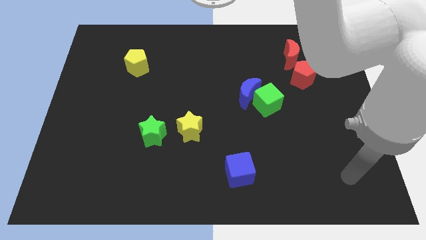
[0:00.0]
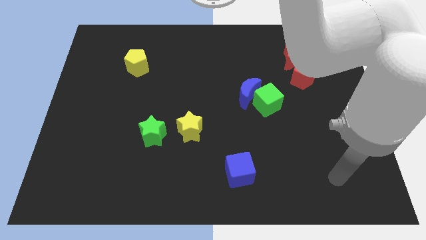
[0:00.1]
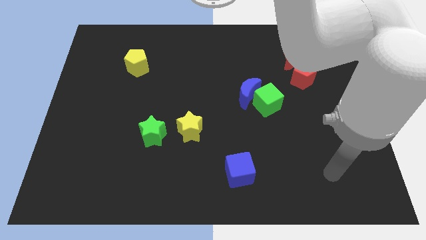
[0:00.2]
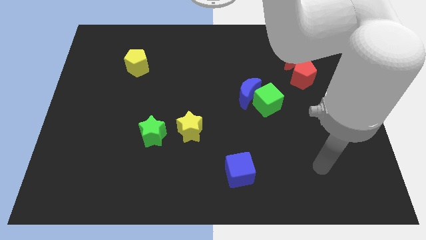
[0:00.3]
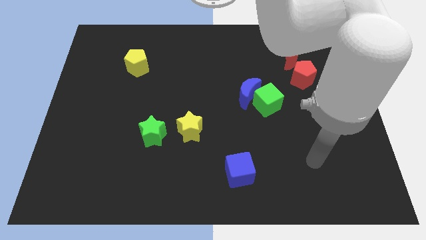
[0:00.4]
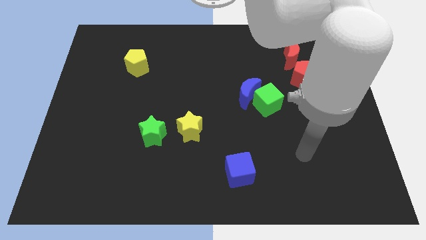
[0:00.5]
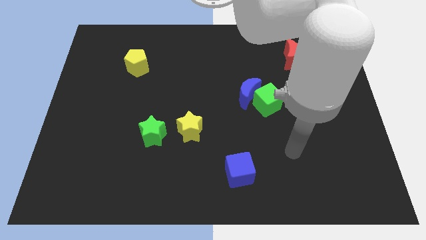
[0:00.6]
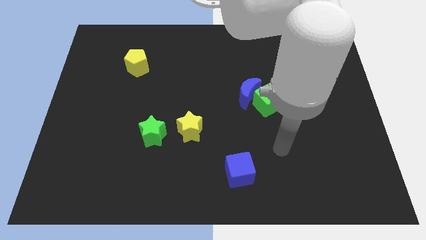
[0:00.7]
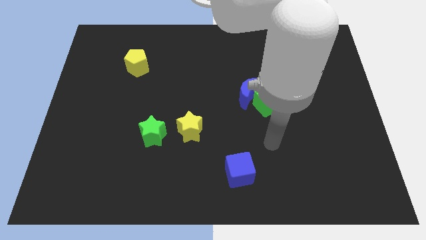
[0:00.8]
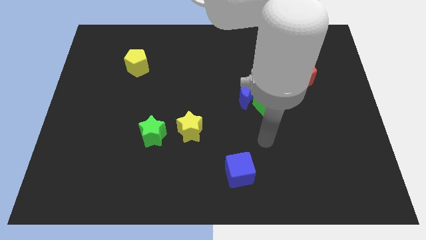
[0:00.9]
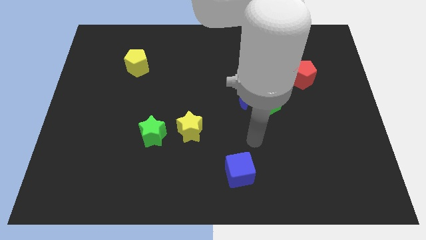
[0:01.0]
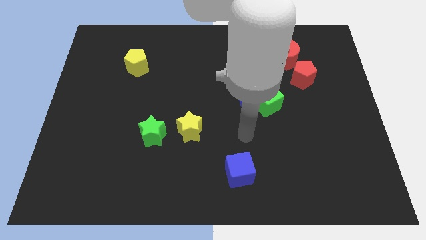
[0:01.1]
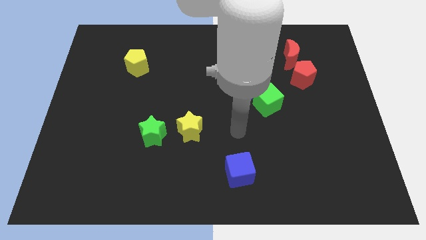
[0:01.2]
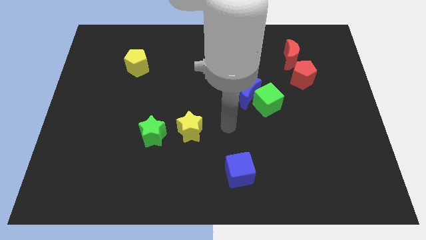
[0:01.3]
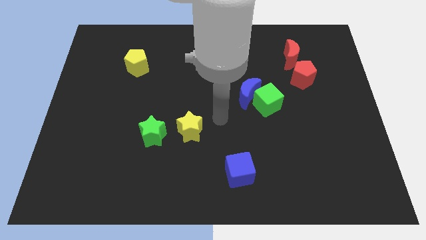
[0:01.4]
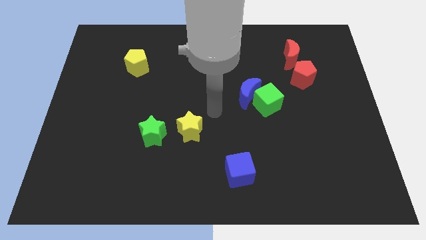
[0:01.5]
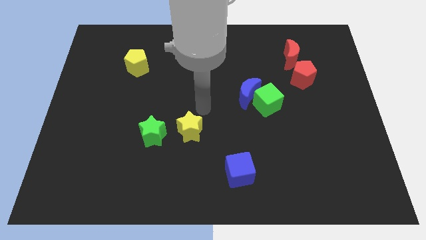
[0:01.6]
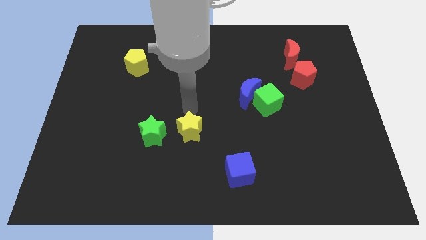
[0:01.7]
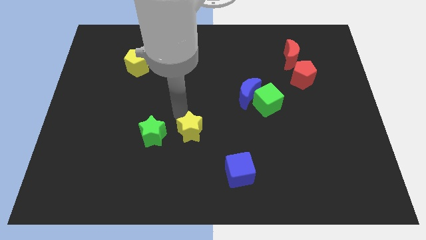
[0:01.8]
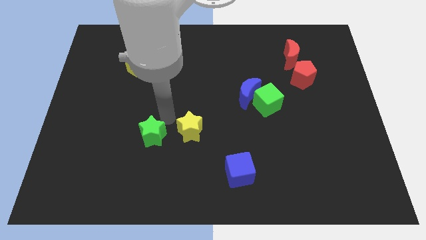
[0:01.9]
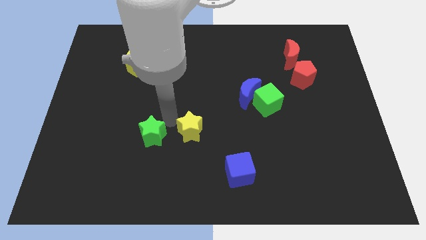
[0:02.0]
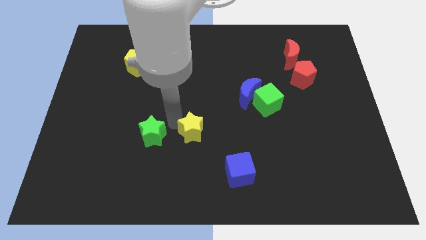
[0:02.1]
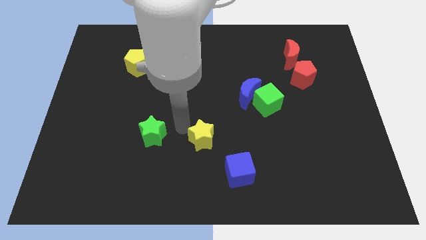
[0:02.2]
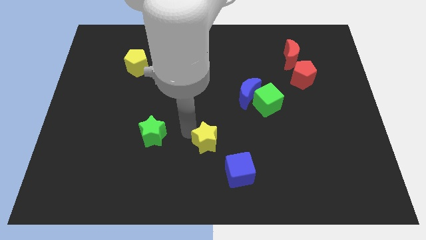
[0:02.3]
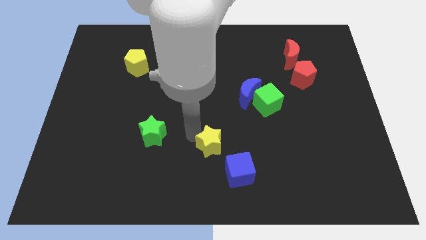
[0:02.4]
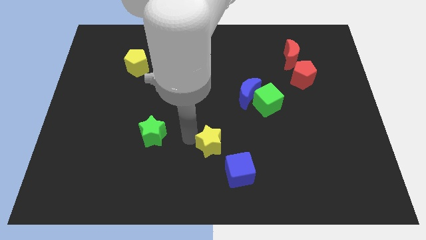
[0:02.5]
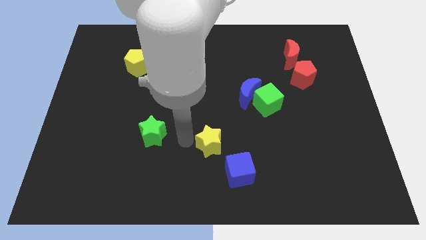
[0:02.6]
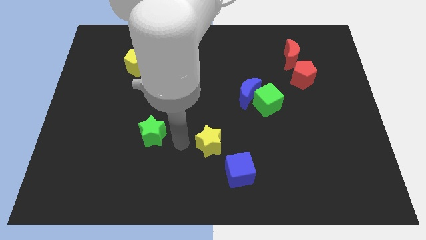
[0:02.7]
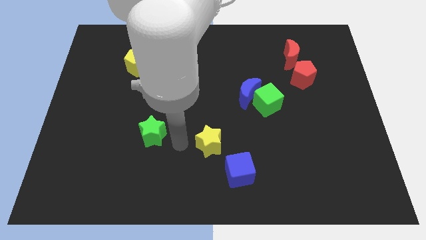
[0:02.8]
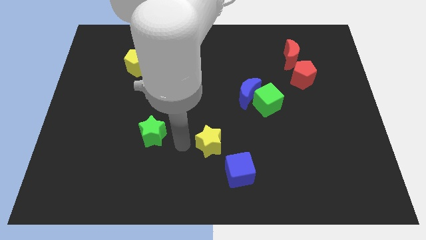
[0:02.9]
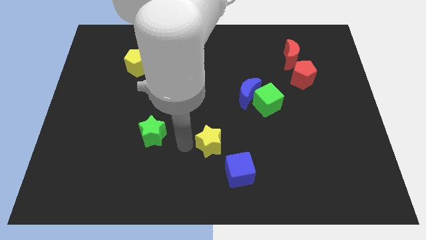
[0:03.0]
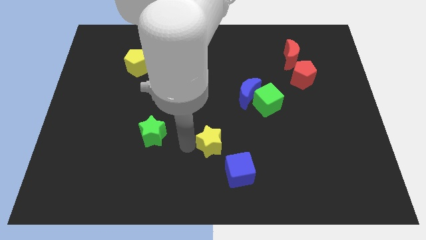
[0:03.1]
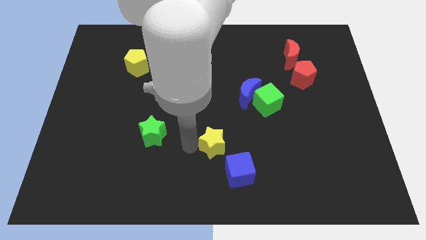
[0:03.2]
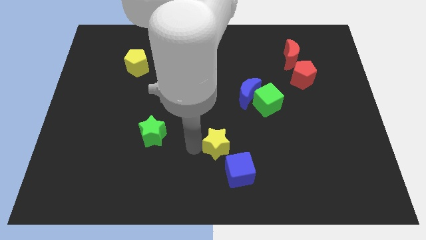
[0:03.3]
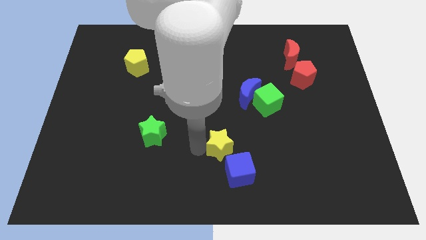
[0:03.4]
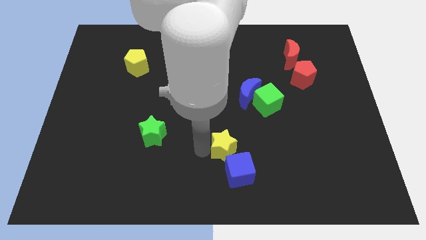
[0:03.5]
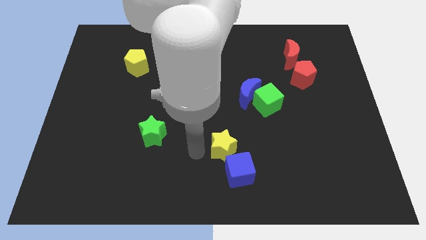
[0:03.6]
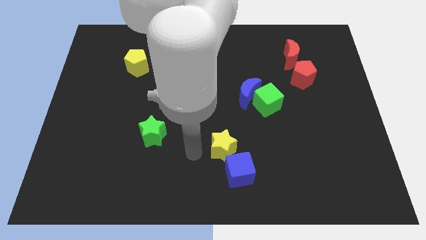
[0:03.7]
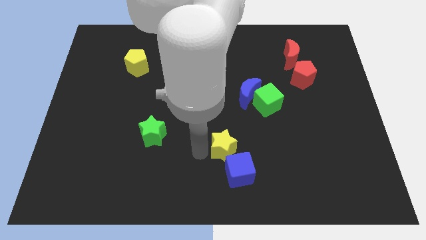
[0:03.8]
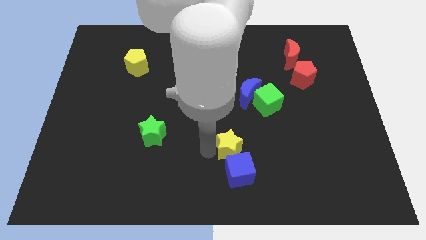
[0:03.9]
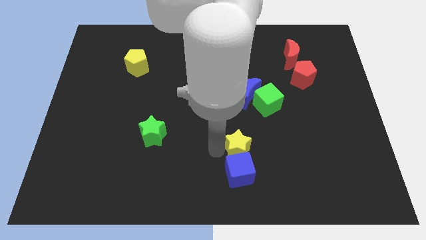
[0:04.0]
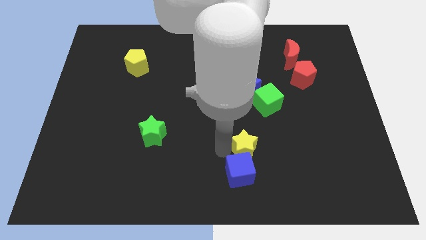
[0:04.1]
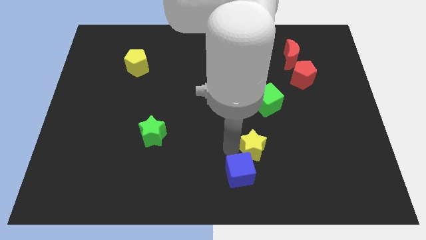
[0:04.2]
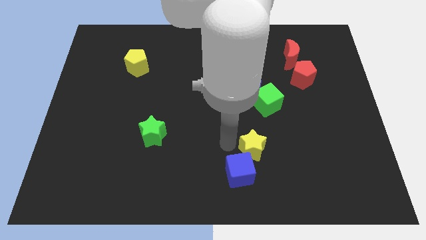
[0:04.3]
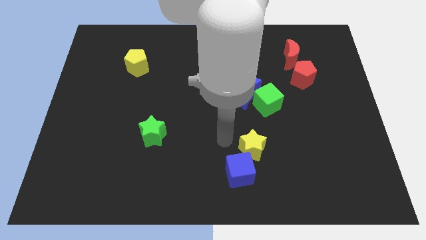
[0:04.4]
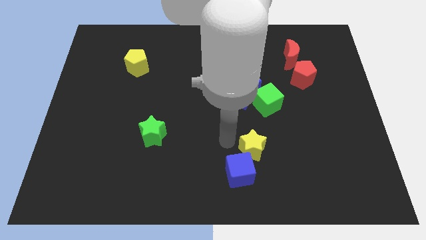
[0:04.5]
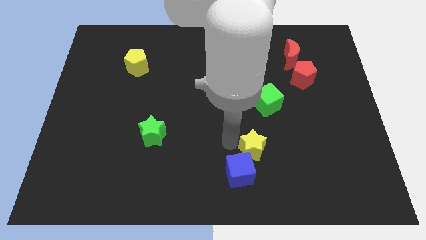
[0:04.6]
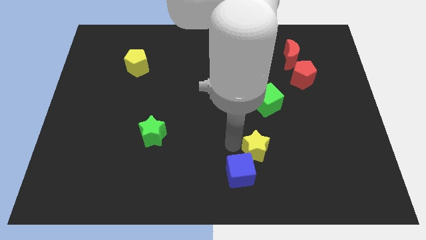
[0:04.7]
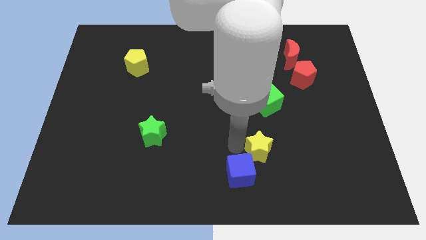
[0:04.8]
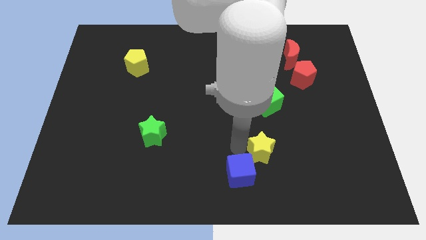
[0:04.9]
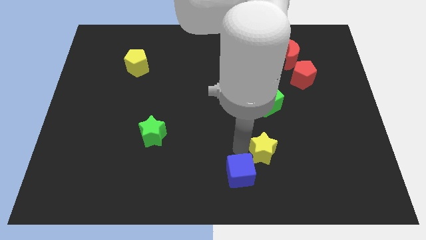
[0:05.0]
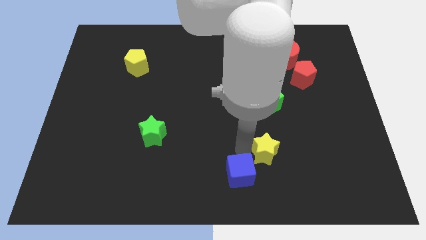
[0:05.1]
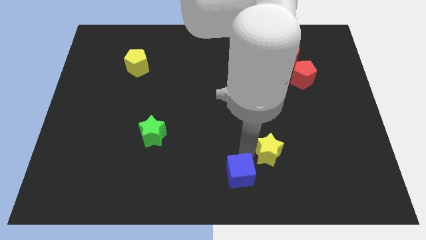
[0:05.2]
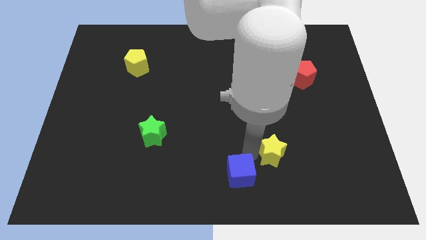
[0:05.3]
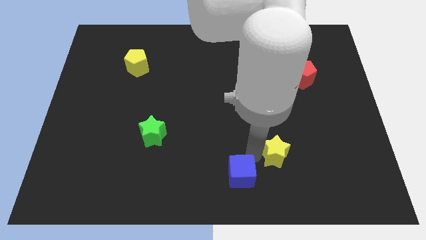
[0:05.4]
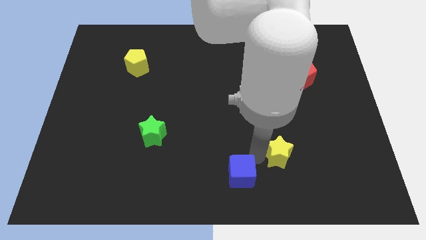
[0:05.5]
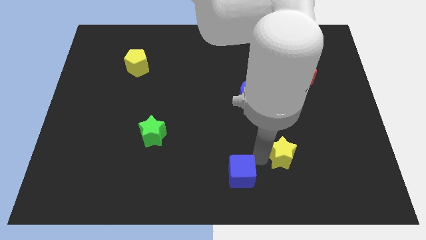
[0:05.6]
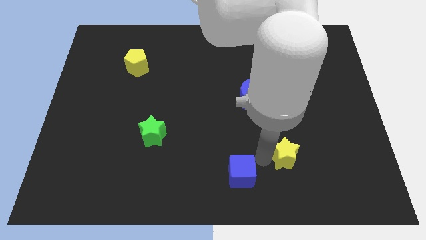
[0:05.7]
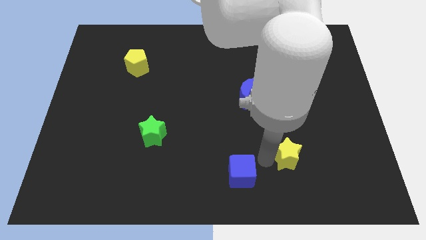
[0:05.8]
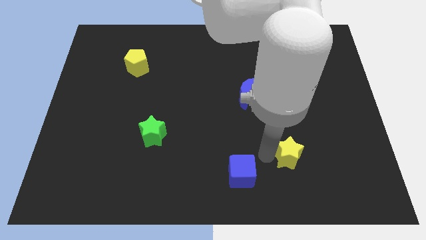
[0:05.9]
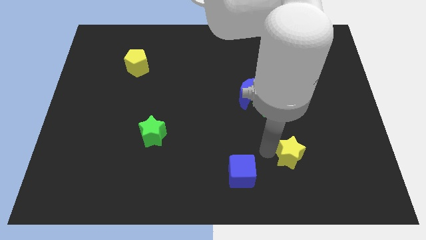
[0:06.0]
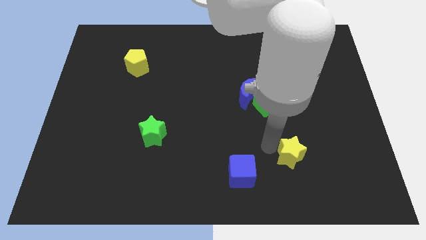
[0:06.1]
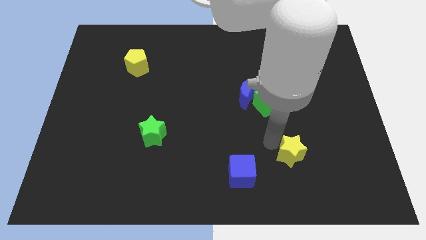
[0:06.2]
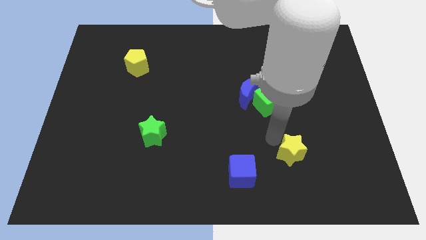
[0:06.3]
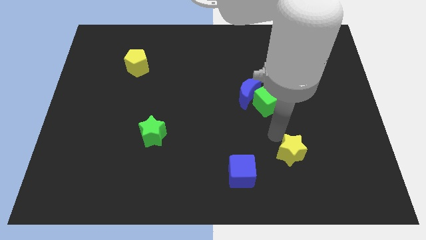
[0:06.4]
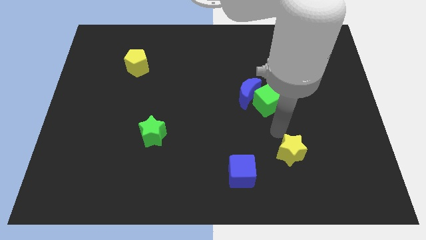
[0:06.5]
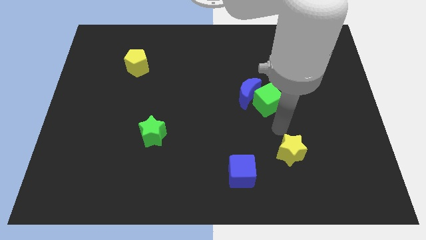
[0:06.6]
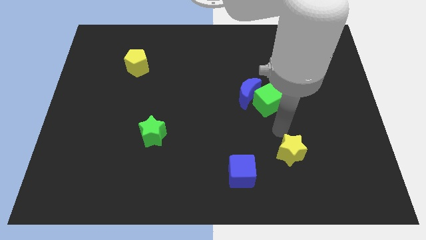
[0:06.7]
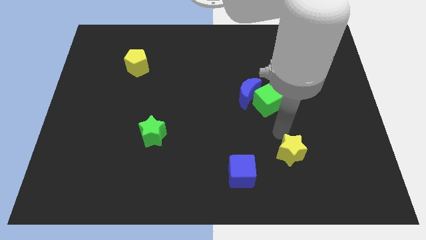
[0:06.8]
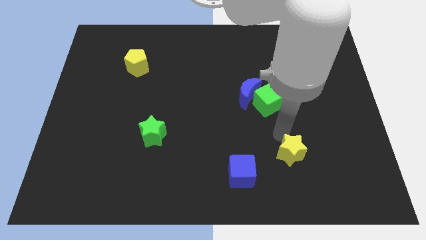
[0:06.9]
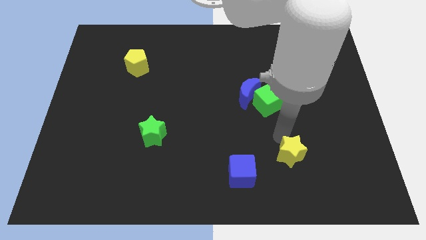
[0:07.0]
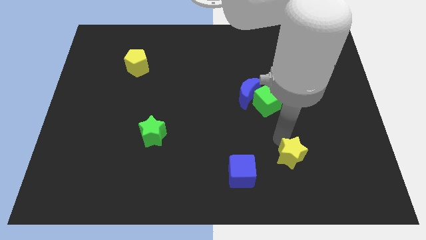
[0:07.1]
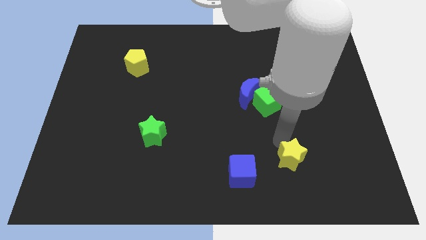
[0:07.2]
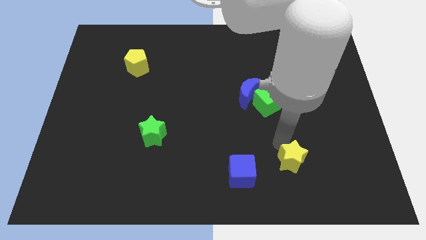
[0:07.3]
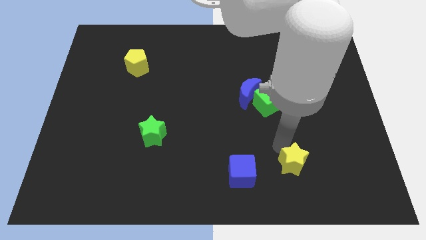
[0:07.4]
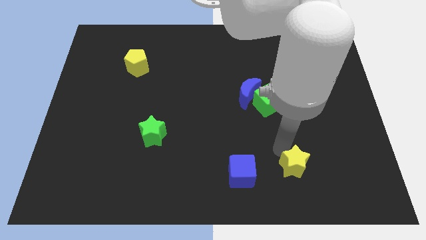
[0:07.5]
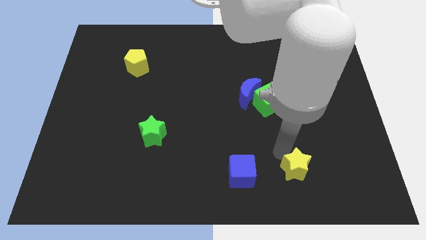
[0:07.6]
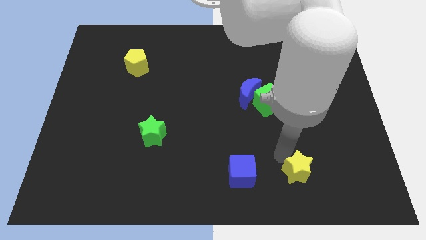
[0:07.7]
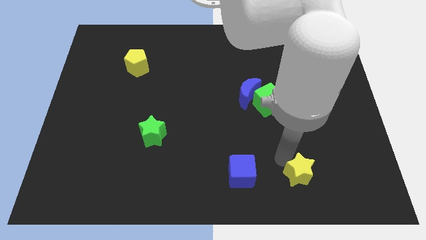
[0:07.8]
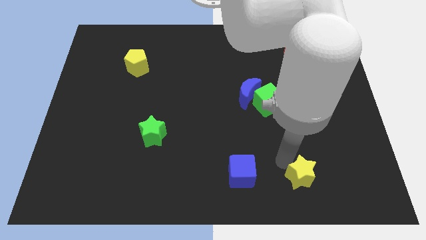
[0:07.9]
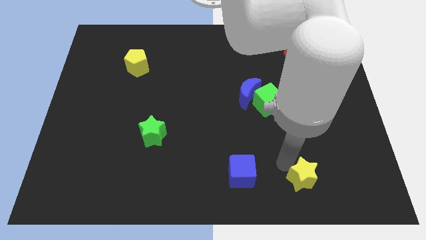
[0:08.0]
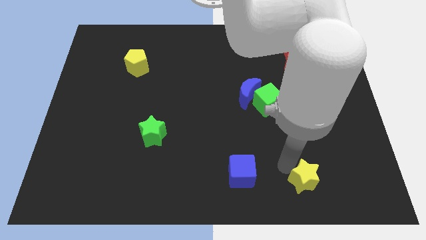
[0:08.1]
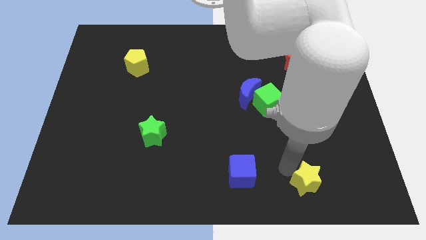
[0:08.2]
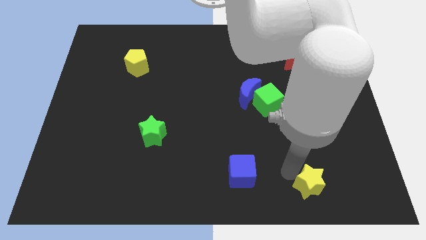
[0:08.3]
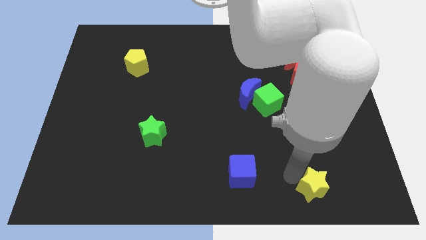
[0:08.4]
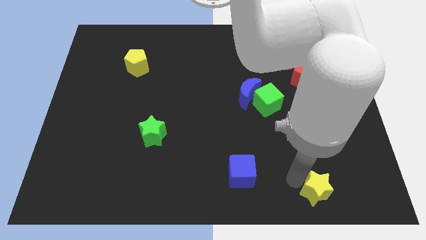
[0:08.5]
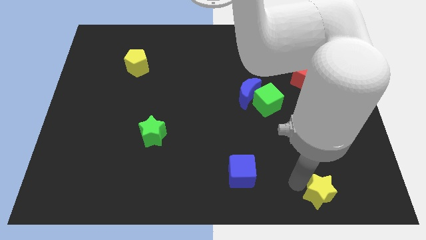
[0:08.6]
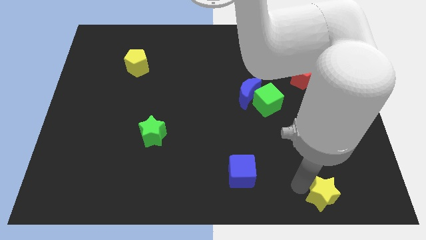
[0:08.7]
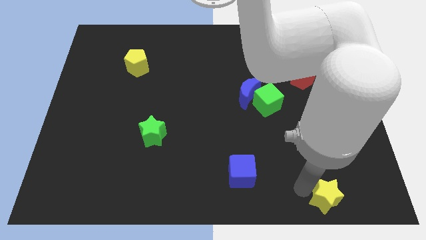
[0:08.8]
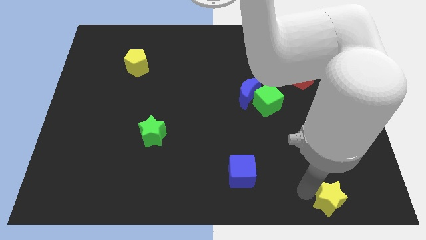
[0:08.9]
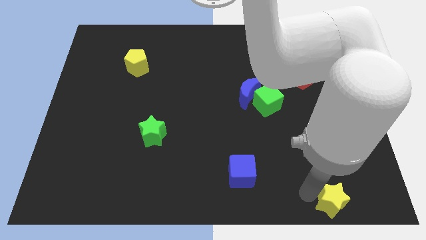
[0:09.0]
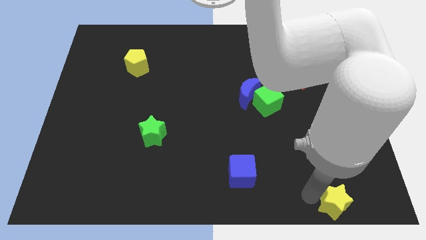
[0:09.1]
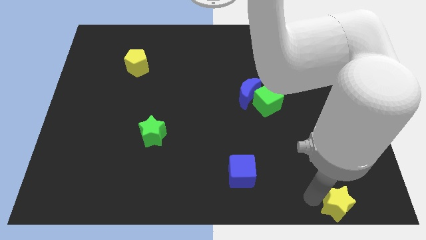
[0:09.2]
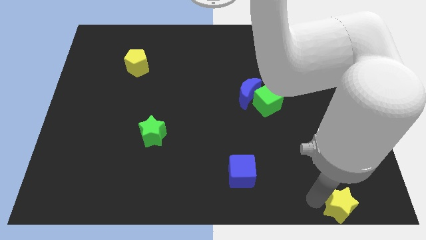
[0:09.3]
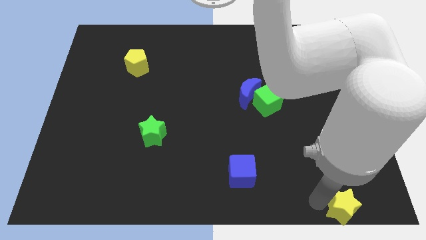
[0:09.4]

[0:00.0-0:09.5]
put the yellow star to the lower right corner
